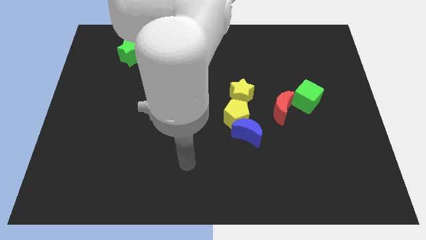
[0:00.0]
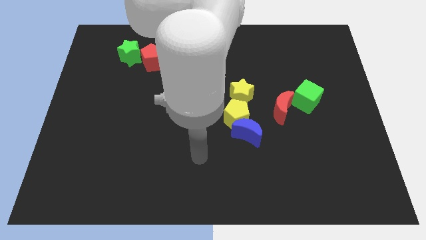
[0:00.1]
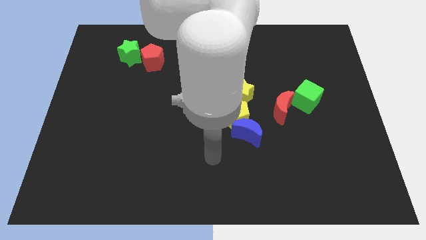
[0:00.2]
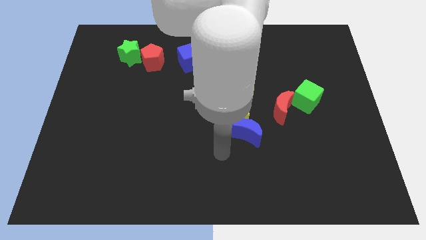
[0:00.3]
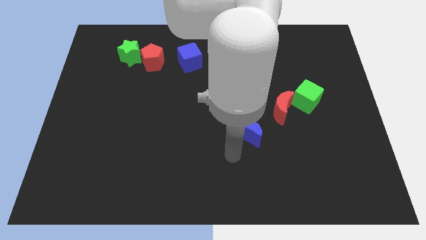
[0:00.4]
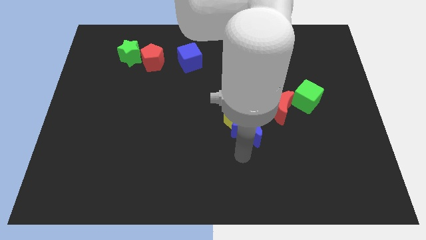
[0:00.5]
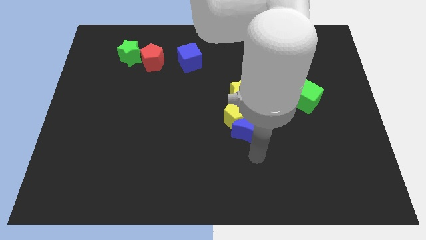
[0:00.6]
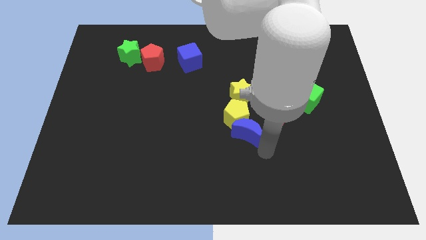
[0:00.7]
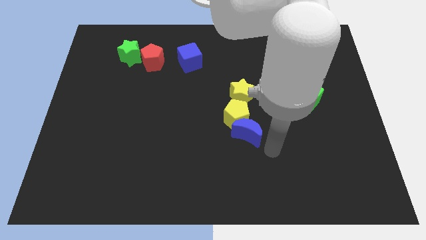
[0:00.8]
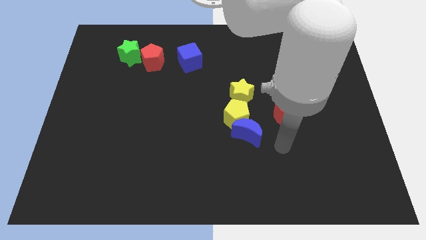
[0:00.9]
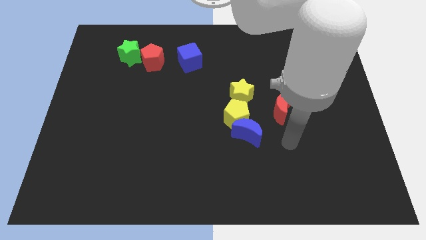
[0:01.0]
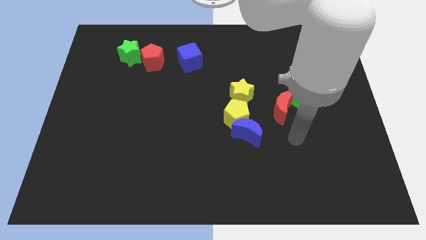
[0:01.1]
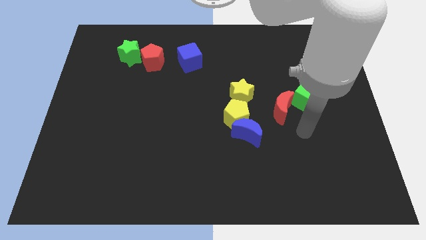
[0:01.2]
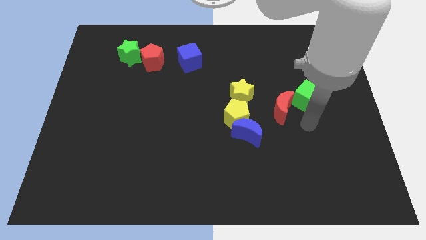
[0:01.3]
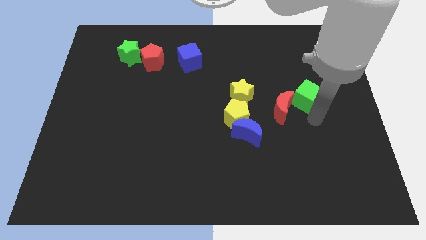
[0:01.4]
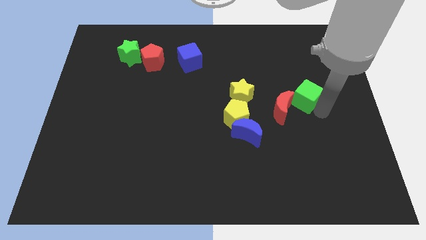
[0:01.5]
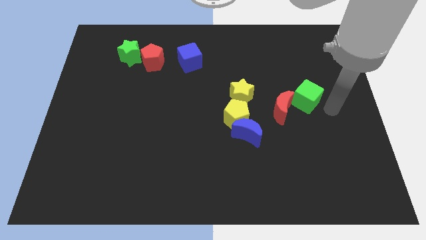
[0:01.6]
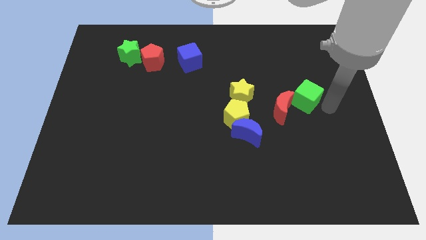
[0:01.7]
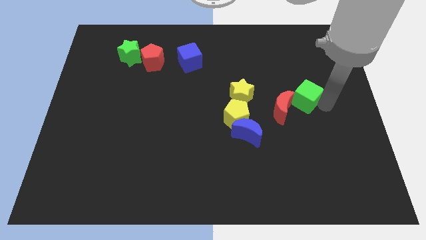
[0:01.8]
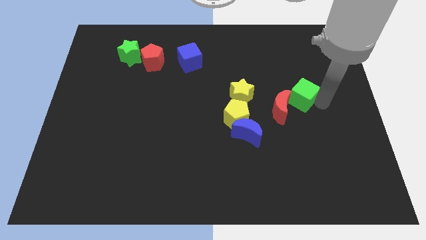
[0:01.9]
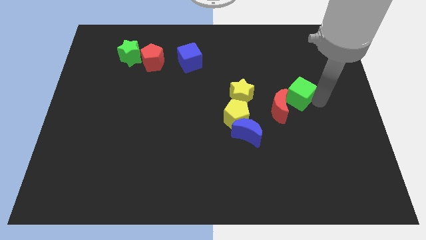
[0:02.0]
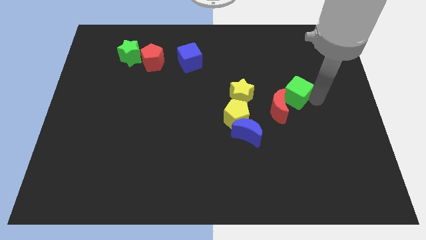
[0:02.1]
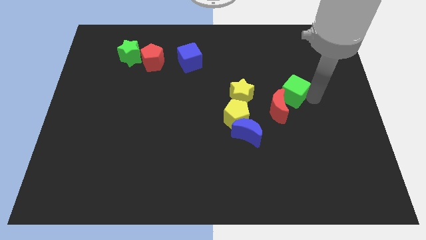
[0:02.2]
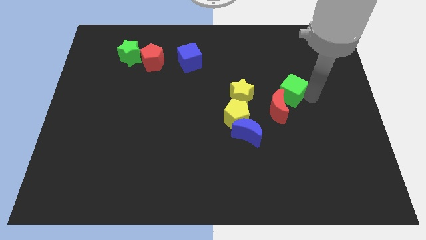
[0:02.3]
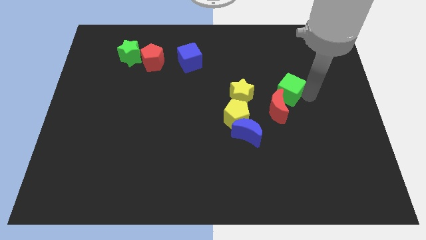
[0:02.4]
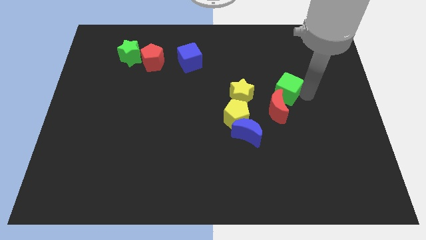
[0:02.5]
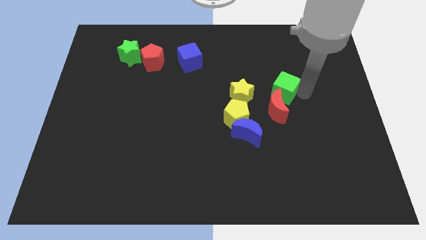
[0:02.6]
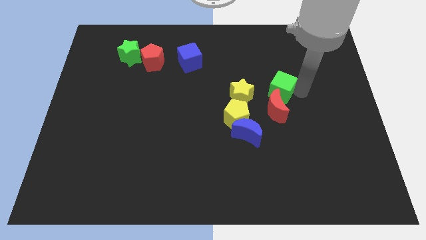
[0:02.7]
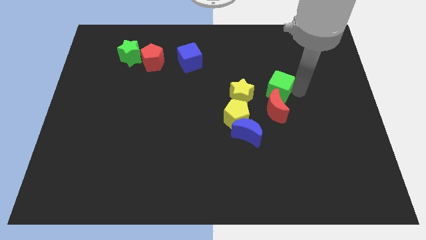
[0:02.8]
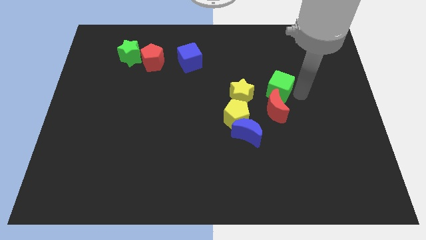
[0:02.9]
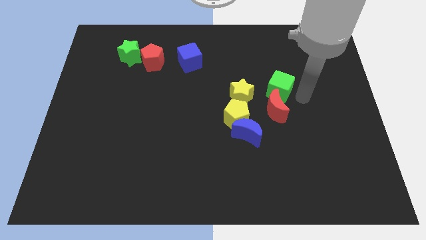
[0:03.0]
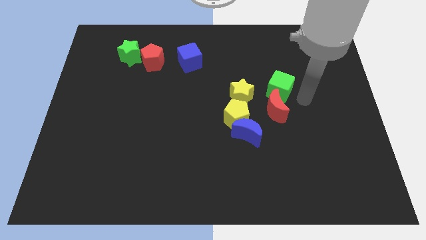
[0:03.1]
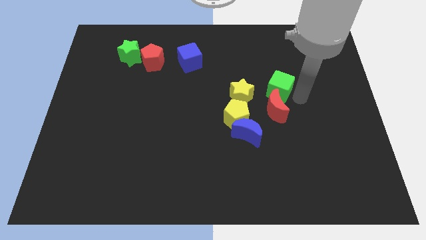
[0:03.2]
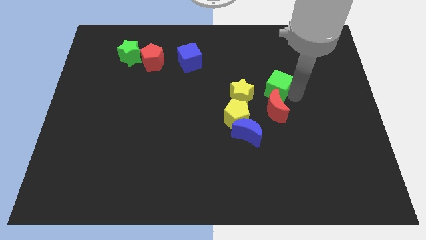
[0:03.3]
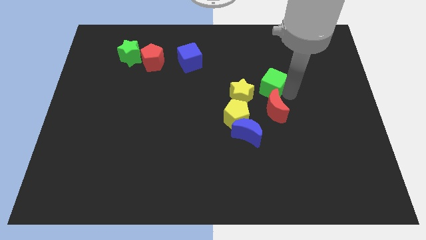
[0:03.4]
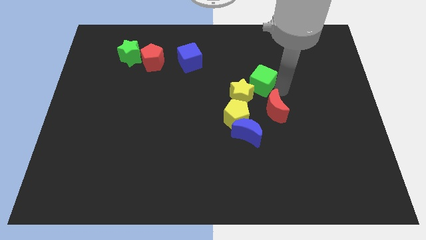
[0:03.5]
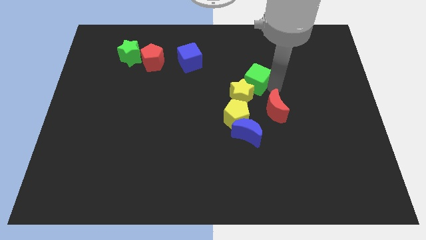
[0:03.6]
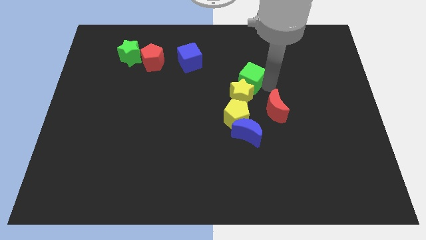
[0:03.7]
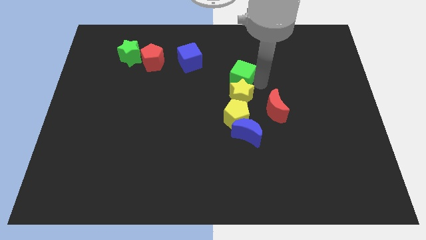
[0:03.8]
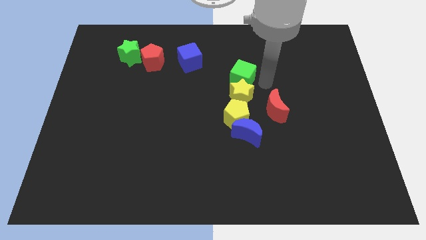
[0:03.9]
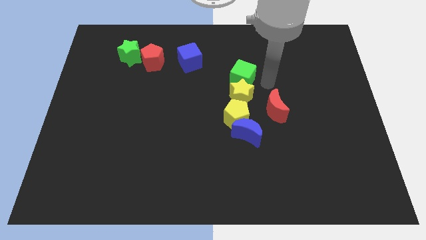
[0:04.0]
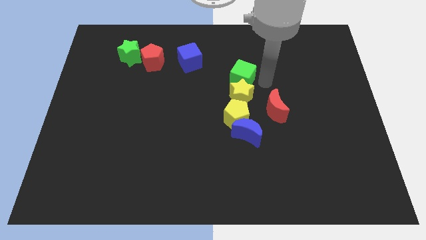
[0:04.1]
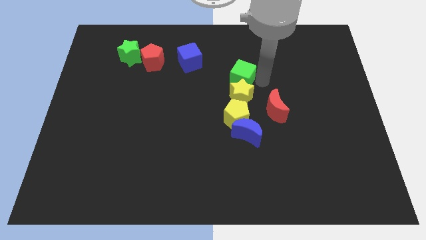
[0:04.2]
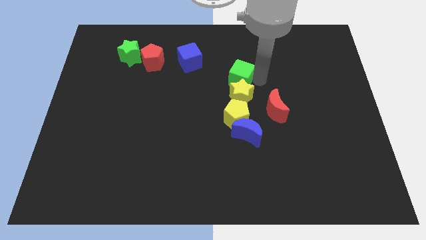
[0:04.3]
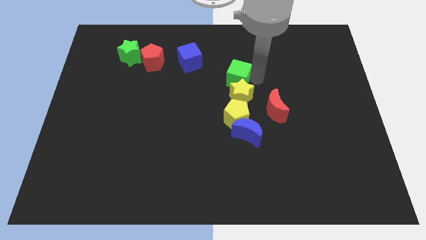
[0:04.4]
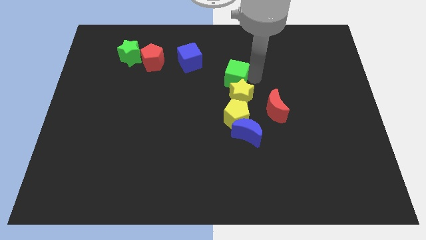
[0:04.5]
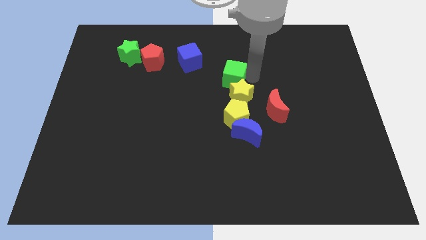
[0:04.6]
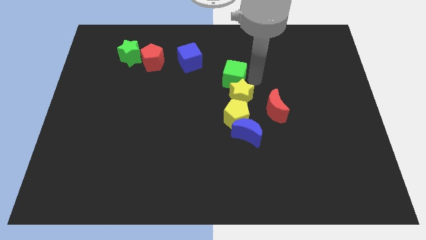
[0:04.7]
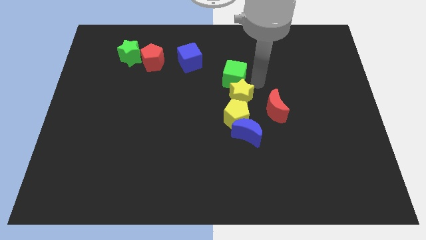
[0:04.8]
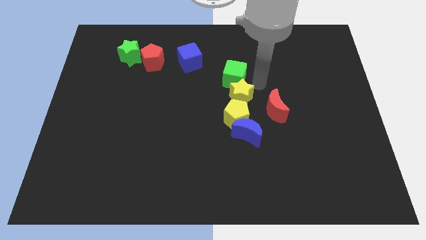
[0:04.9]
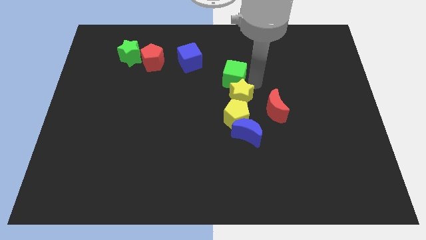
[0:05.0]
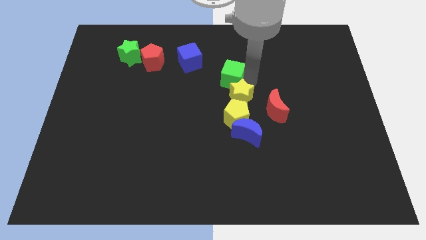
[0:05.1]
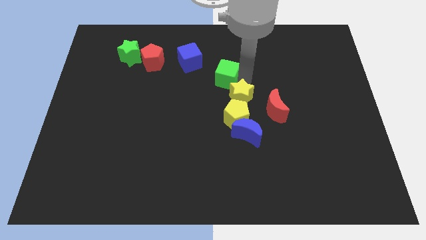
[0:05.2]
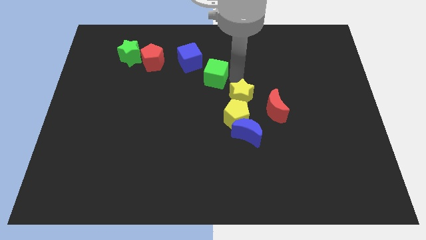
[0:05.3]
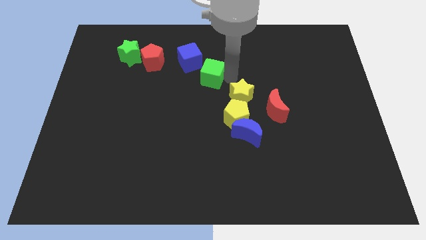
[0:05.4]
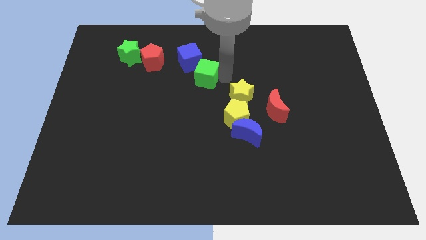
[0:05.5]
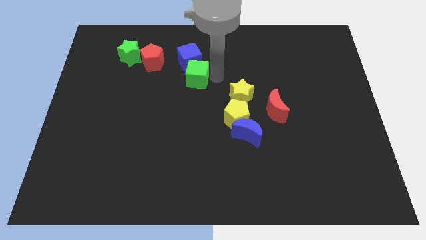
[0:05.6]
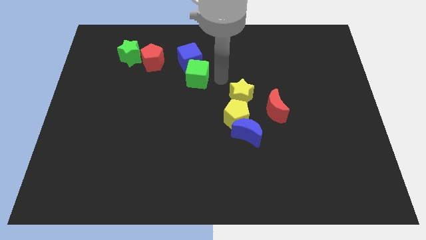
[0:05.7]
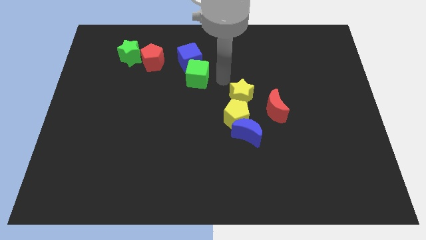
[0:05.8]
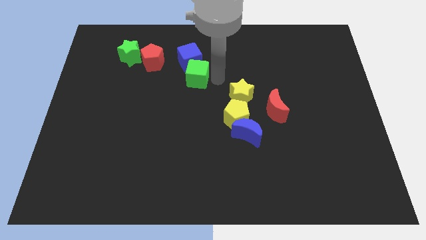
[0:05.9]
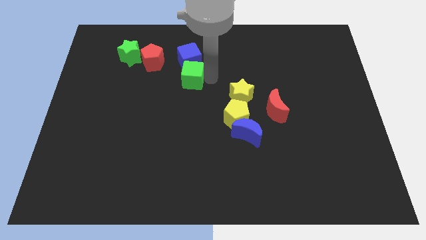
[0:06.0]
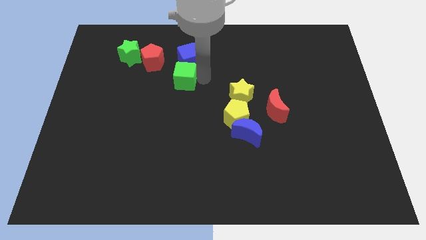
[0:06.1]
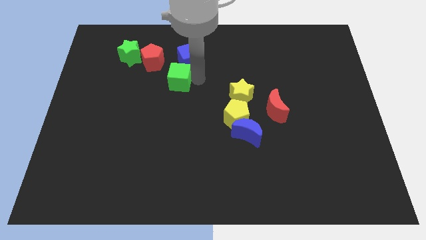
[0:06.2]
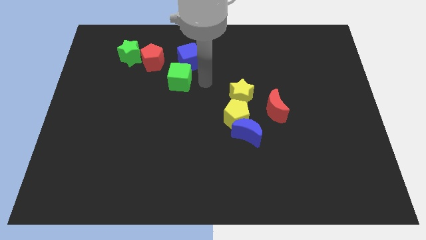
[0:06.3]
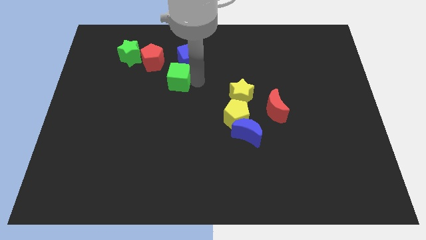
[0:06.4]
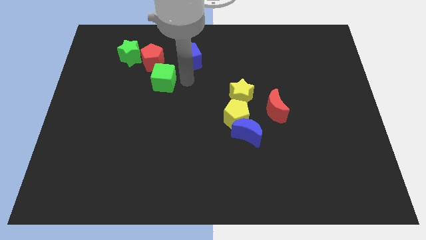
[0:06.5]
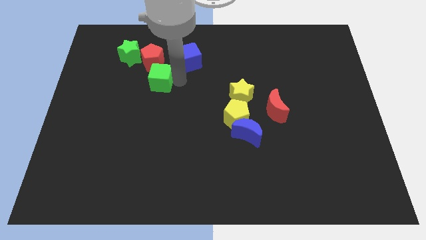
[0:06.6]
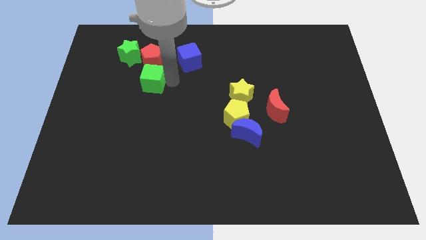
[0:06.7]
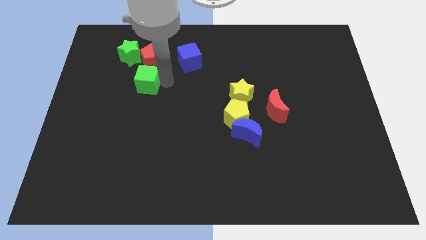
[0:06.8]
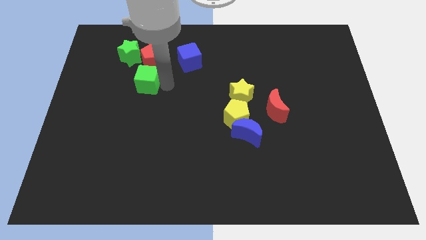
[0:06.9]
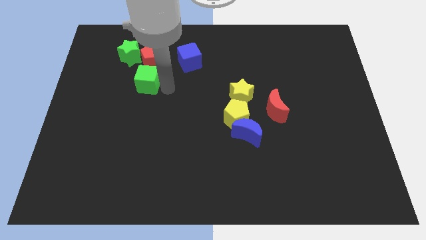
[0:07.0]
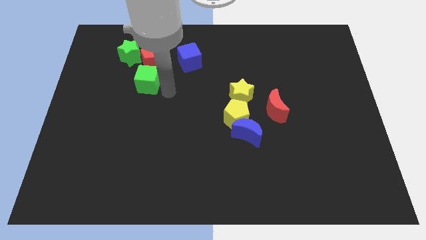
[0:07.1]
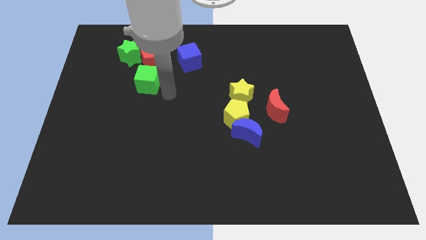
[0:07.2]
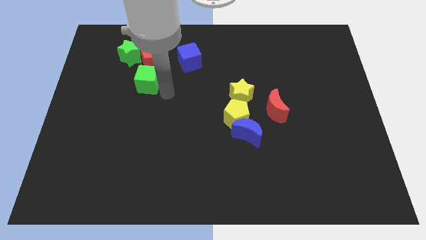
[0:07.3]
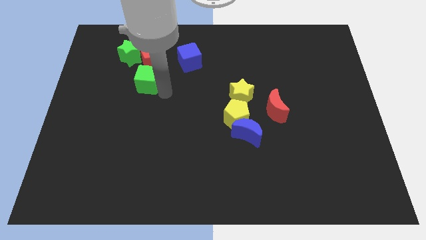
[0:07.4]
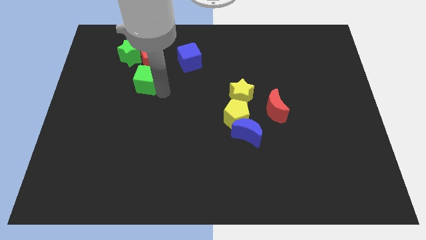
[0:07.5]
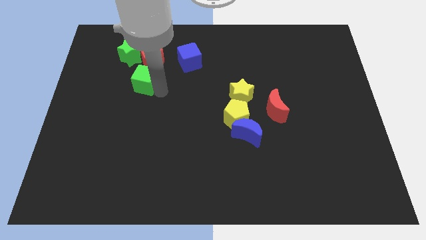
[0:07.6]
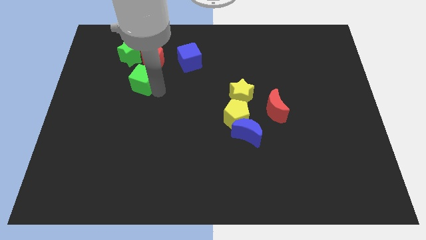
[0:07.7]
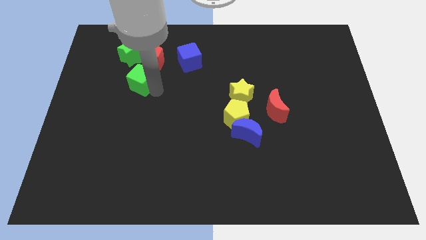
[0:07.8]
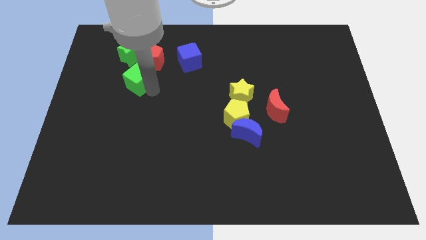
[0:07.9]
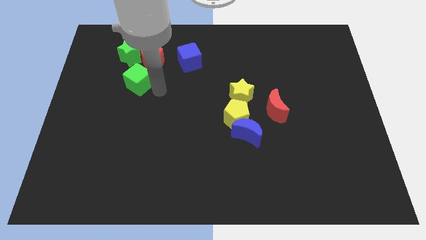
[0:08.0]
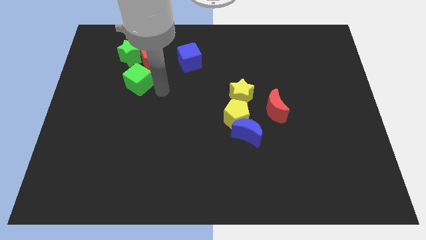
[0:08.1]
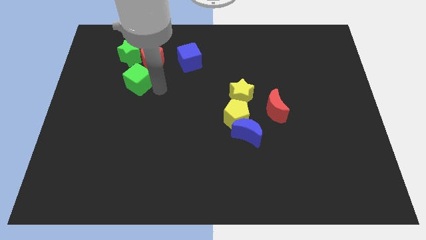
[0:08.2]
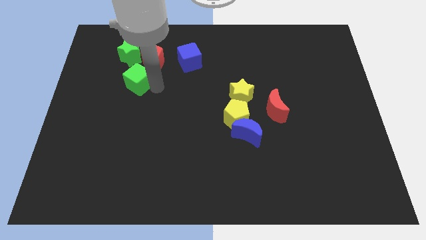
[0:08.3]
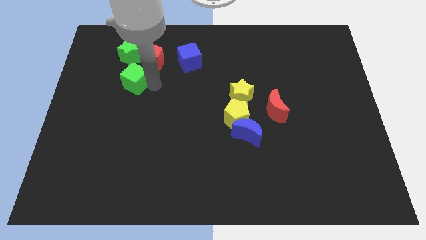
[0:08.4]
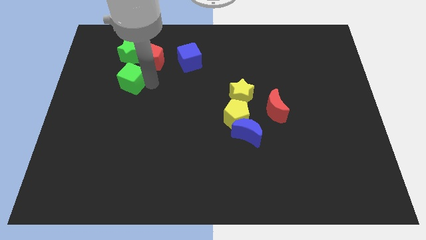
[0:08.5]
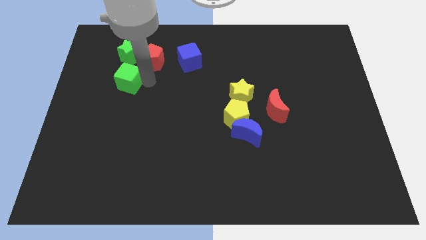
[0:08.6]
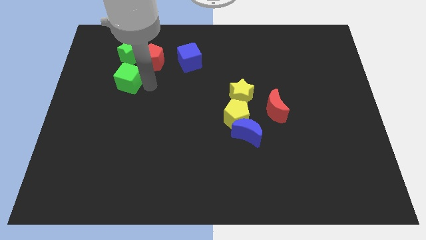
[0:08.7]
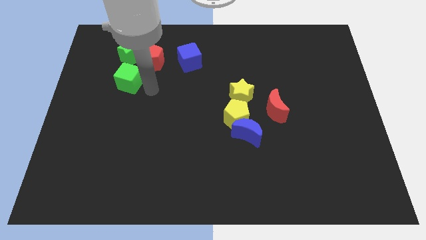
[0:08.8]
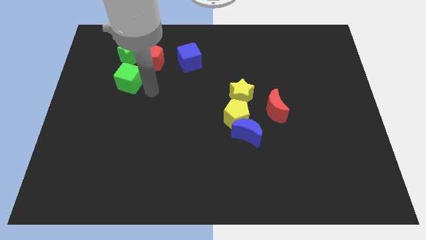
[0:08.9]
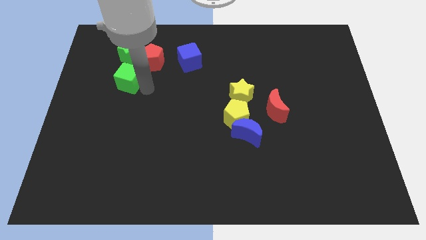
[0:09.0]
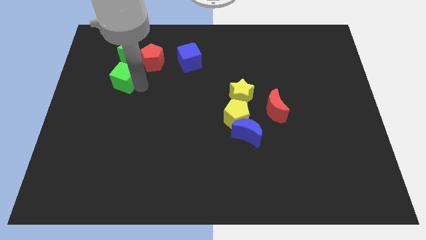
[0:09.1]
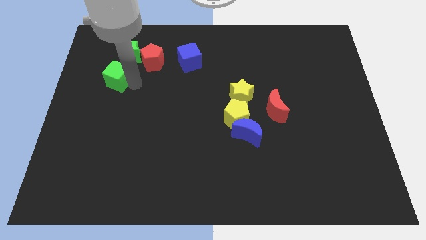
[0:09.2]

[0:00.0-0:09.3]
put the green cube to the bottom left side of the green star
